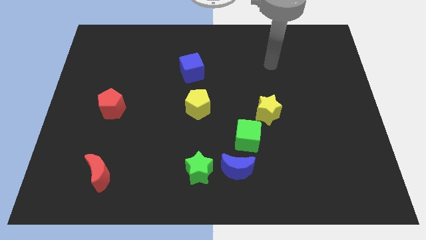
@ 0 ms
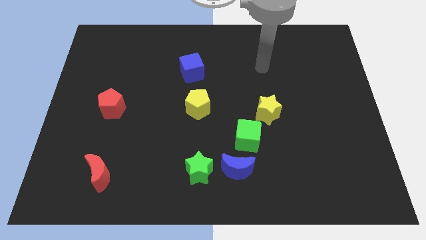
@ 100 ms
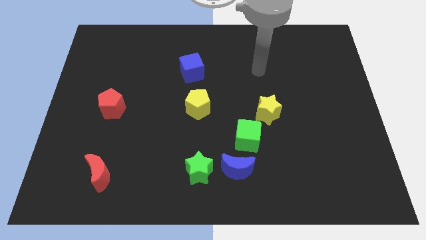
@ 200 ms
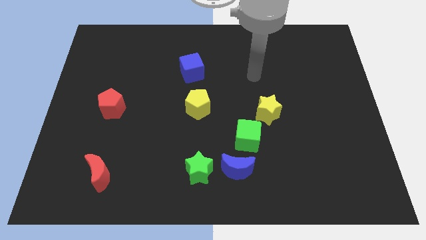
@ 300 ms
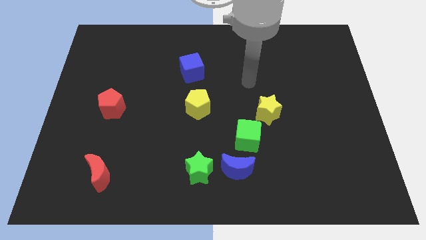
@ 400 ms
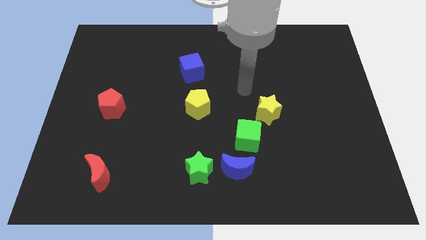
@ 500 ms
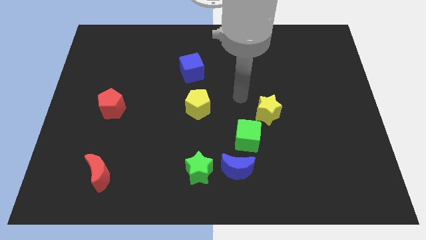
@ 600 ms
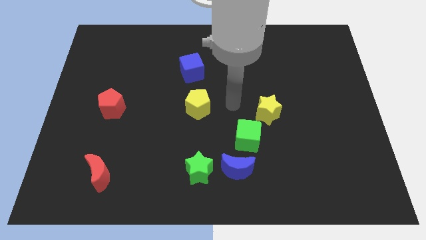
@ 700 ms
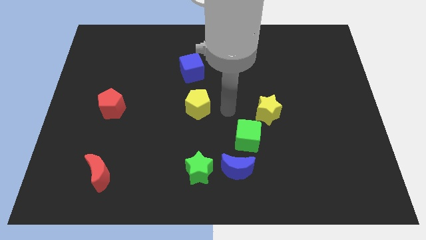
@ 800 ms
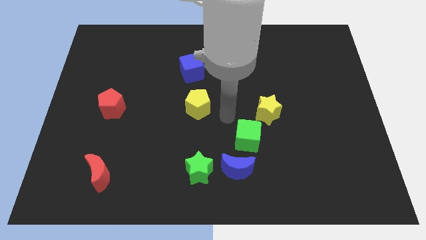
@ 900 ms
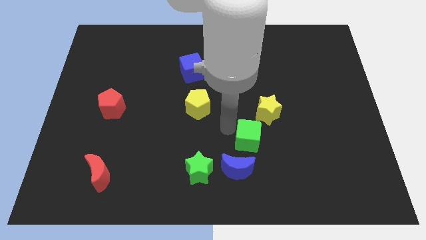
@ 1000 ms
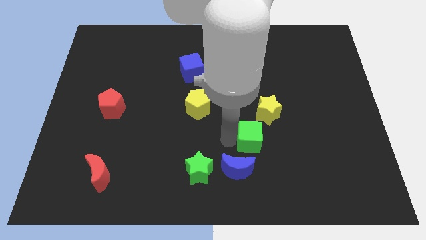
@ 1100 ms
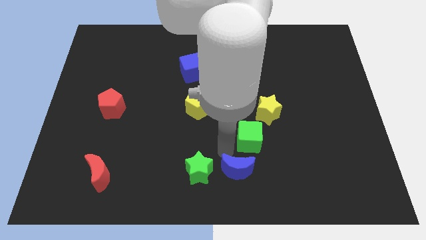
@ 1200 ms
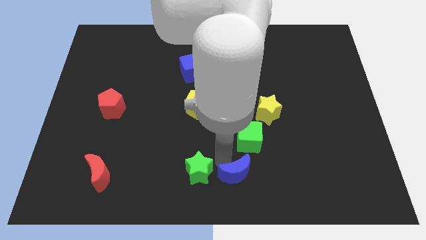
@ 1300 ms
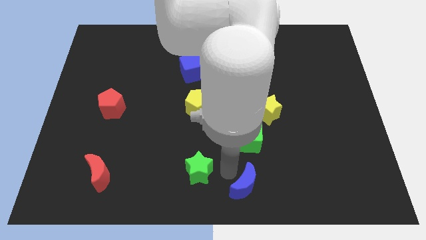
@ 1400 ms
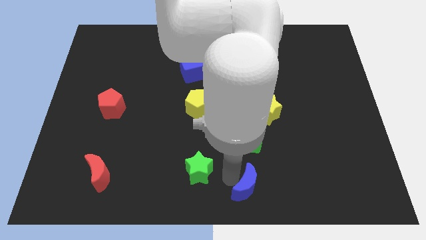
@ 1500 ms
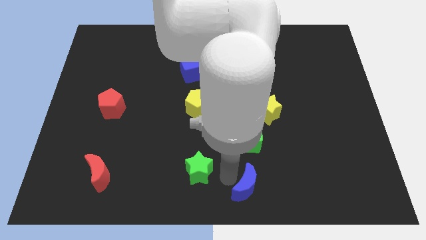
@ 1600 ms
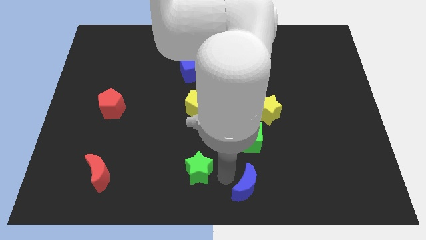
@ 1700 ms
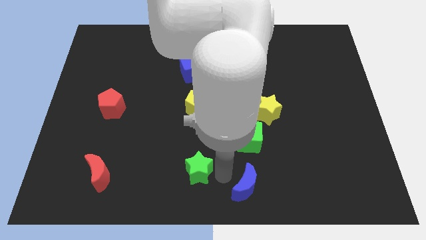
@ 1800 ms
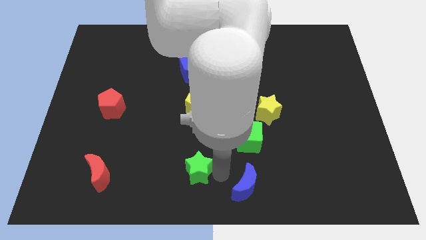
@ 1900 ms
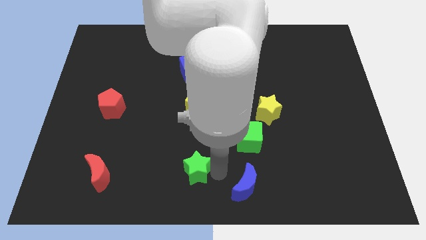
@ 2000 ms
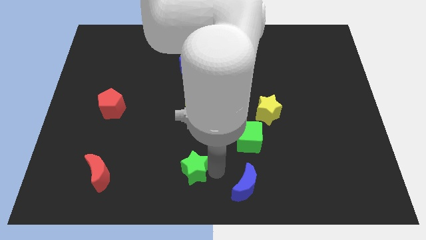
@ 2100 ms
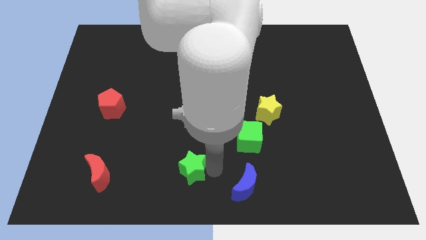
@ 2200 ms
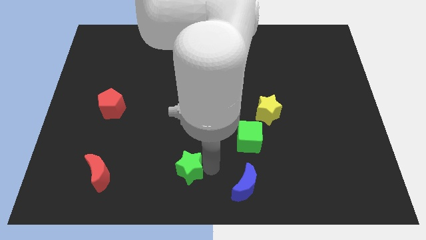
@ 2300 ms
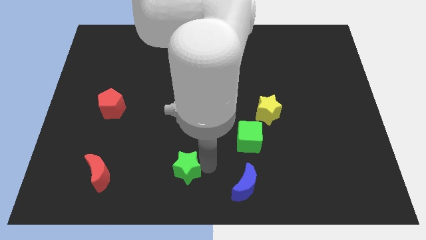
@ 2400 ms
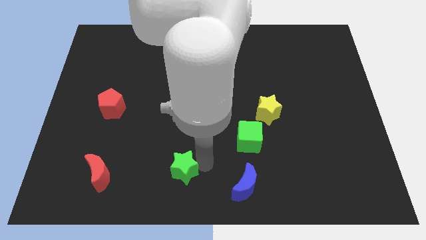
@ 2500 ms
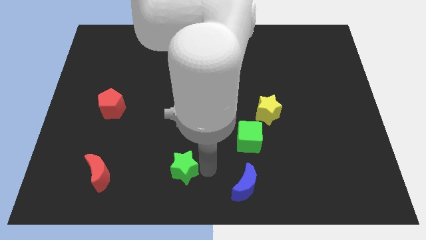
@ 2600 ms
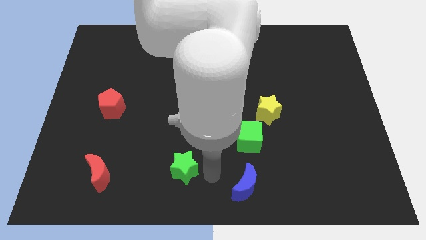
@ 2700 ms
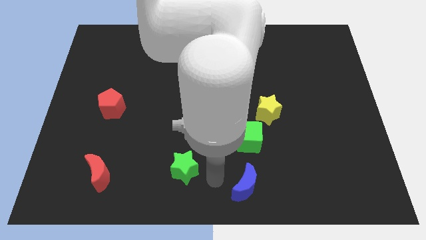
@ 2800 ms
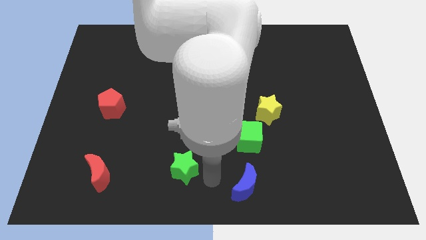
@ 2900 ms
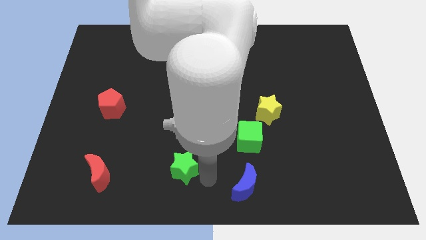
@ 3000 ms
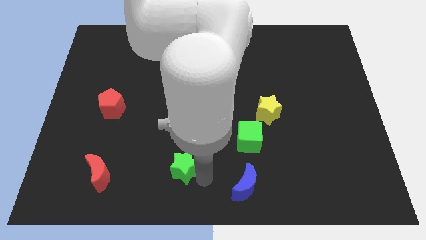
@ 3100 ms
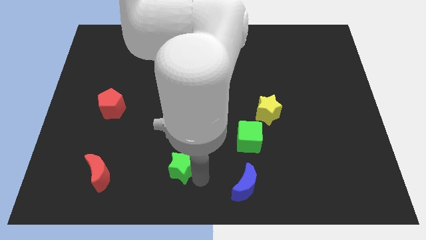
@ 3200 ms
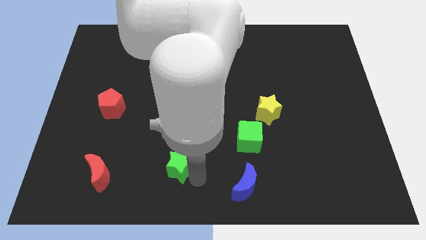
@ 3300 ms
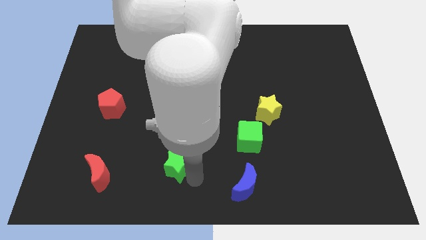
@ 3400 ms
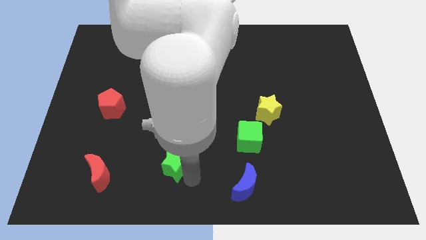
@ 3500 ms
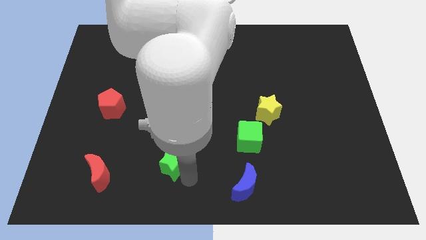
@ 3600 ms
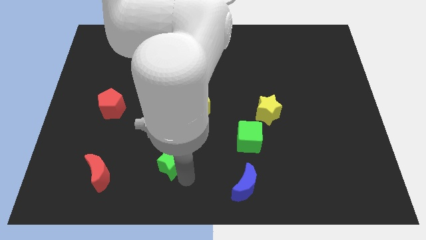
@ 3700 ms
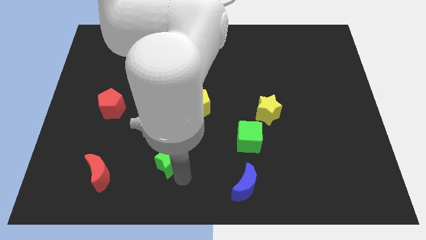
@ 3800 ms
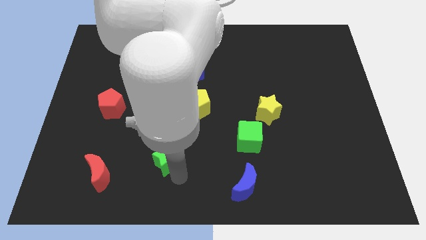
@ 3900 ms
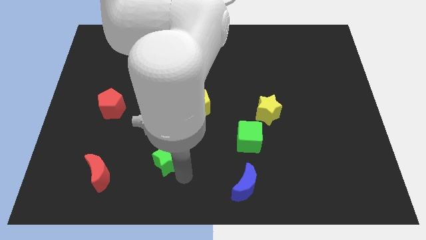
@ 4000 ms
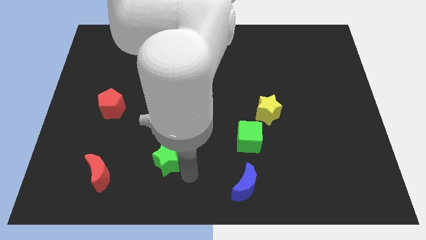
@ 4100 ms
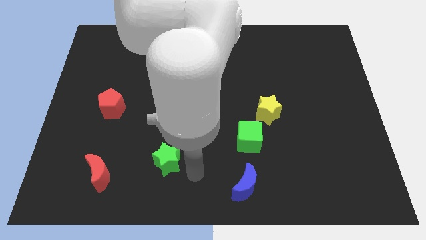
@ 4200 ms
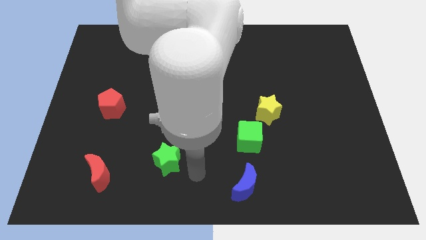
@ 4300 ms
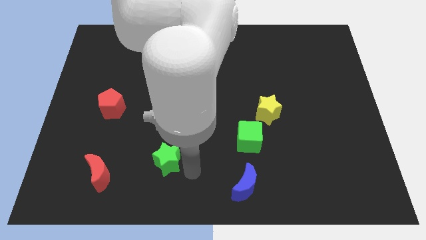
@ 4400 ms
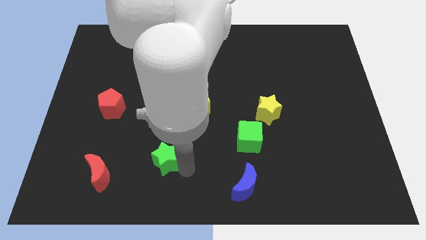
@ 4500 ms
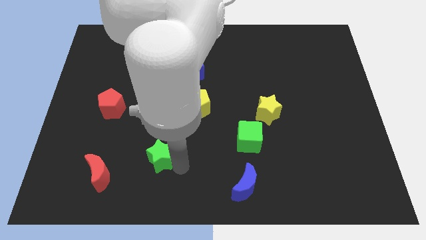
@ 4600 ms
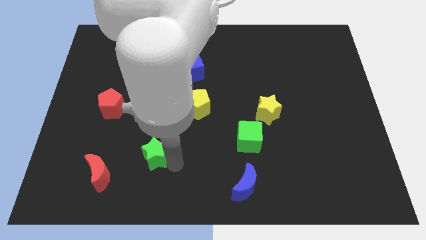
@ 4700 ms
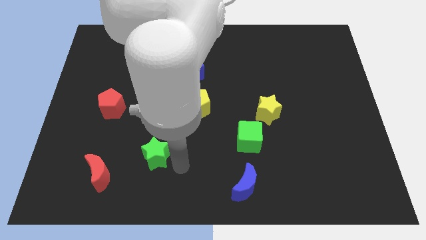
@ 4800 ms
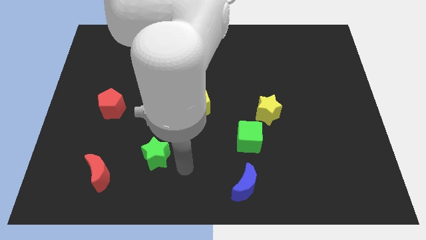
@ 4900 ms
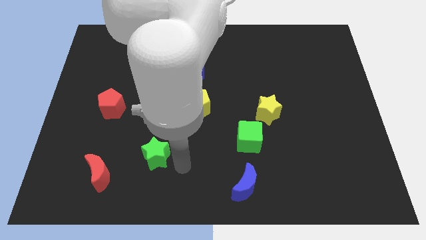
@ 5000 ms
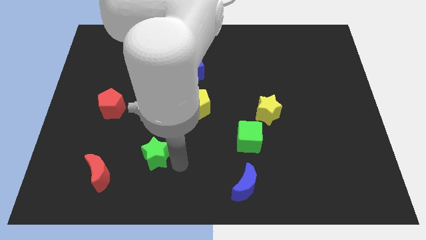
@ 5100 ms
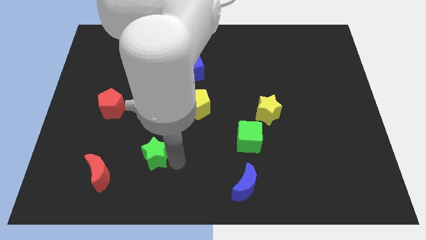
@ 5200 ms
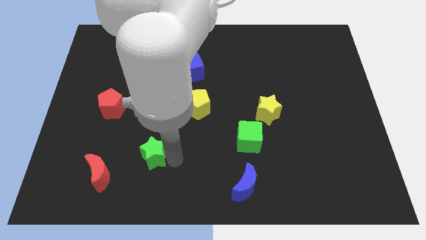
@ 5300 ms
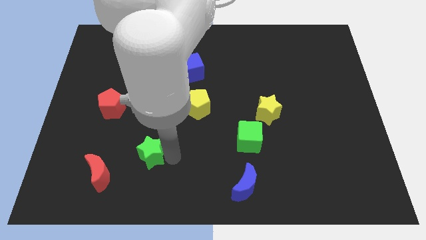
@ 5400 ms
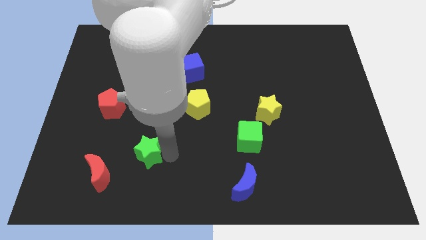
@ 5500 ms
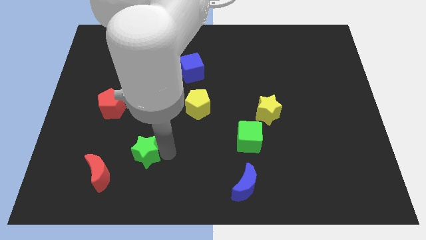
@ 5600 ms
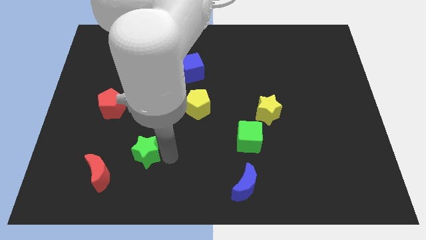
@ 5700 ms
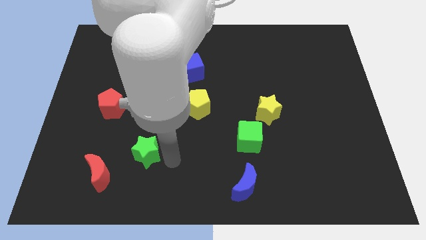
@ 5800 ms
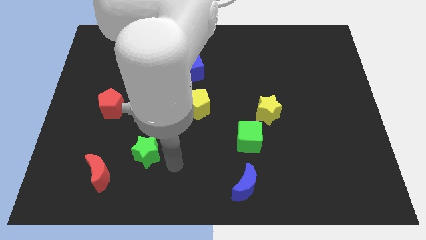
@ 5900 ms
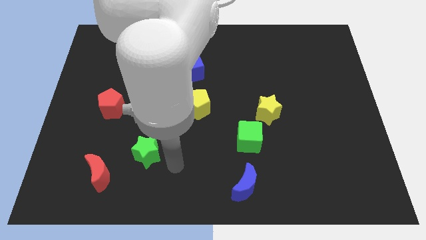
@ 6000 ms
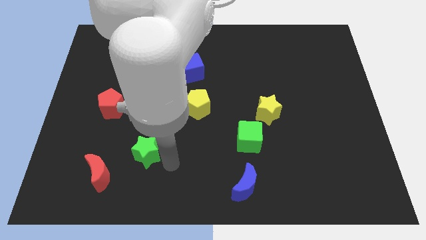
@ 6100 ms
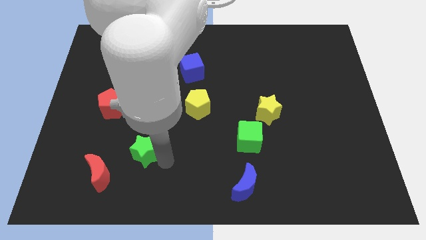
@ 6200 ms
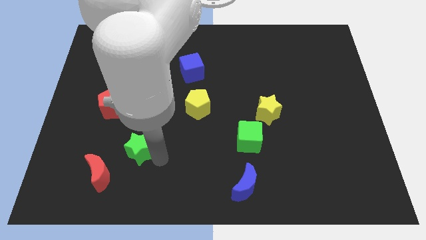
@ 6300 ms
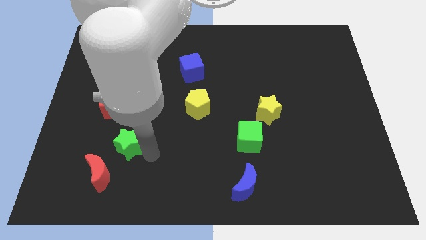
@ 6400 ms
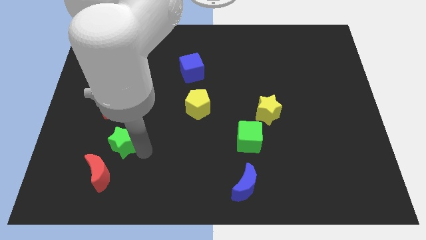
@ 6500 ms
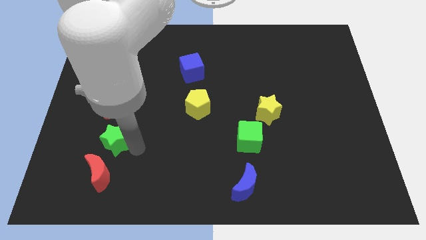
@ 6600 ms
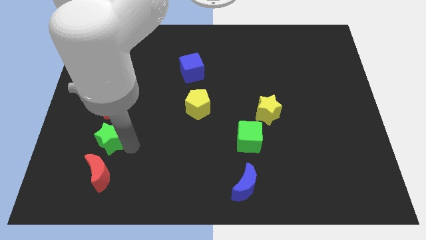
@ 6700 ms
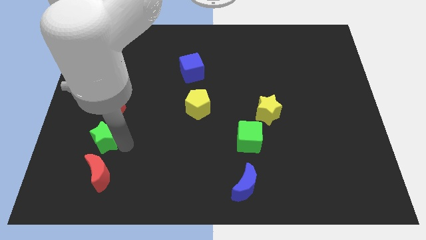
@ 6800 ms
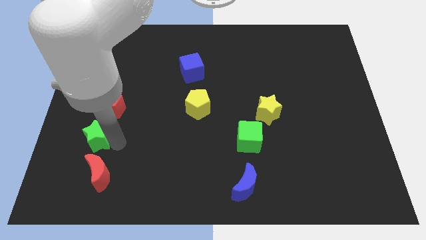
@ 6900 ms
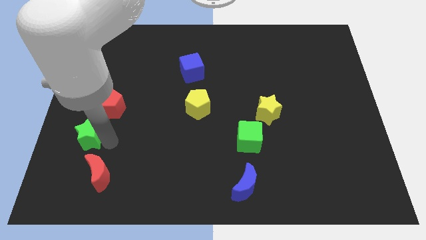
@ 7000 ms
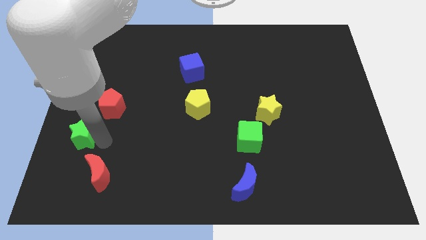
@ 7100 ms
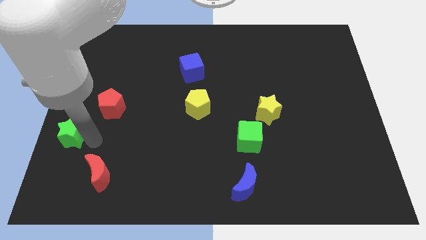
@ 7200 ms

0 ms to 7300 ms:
push the green star to the center left
